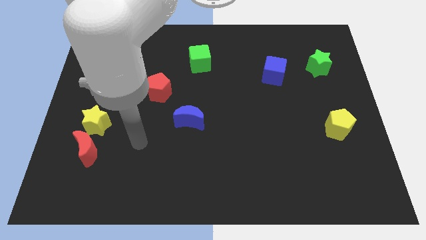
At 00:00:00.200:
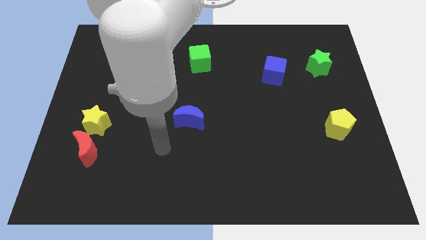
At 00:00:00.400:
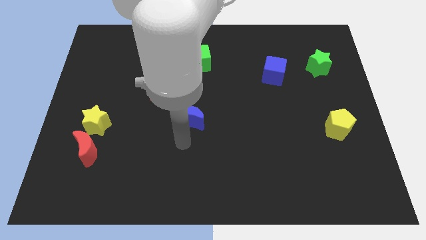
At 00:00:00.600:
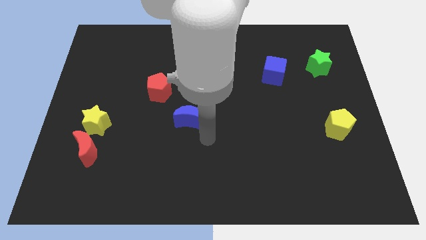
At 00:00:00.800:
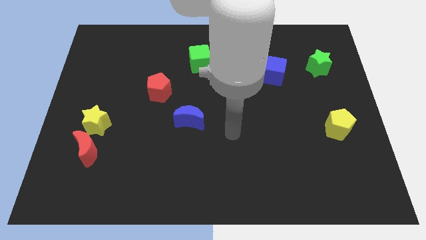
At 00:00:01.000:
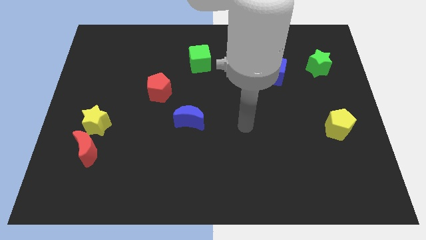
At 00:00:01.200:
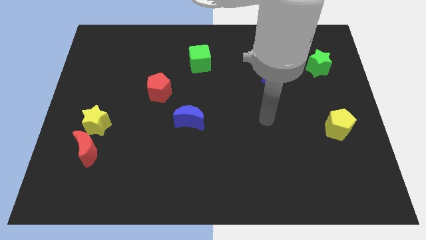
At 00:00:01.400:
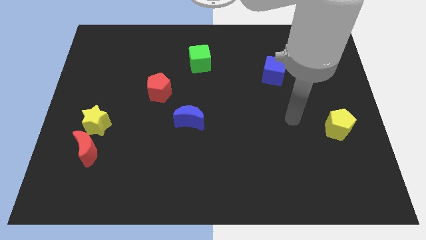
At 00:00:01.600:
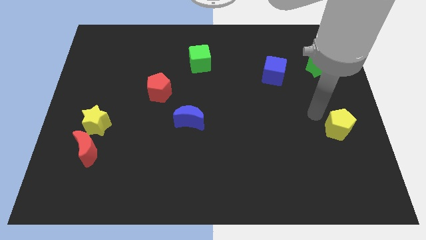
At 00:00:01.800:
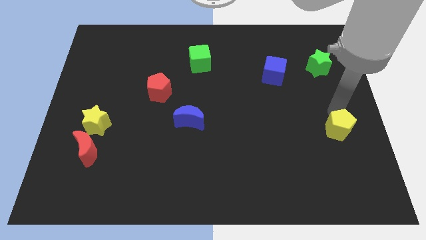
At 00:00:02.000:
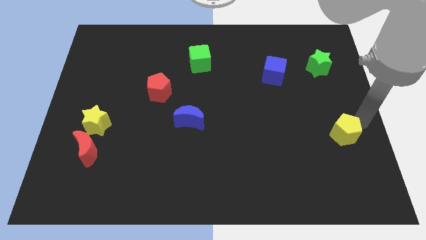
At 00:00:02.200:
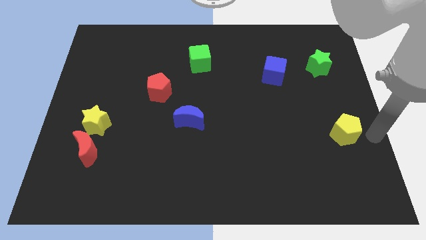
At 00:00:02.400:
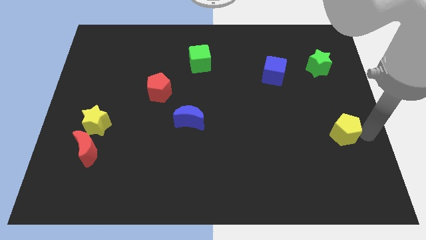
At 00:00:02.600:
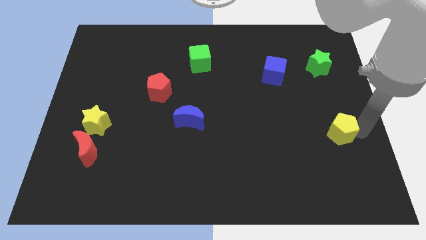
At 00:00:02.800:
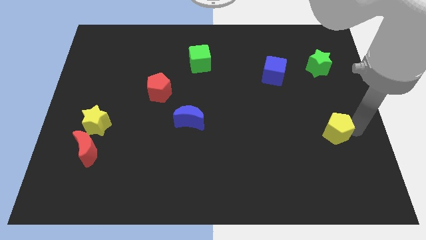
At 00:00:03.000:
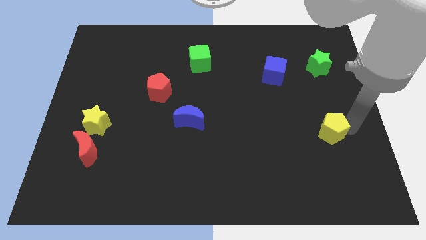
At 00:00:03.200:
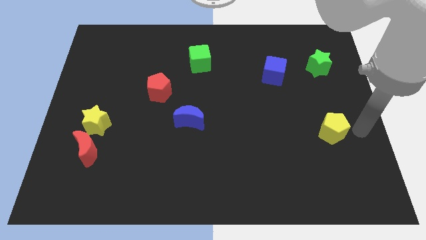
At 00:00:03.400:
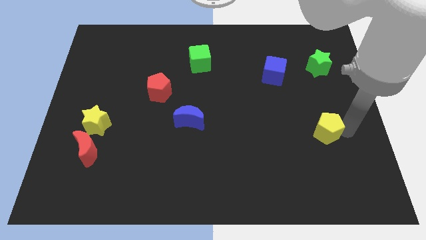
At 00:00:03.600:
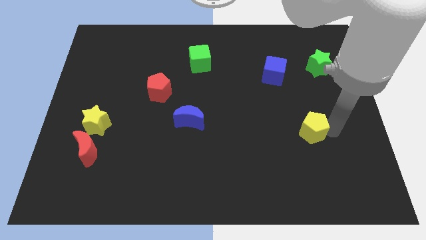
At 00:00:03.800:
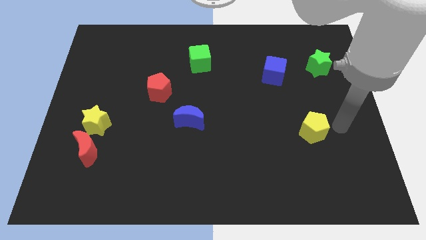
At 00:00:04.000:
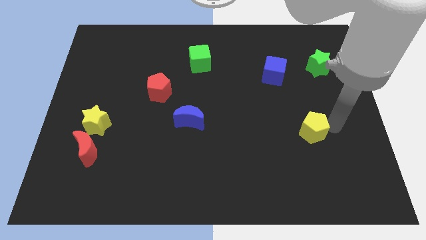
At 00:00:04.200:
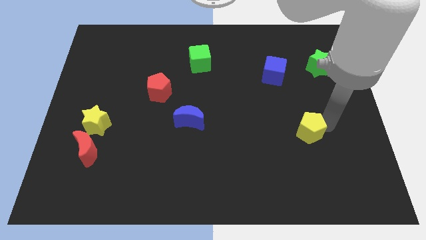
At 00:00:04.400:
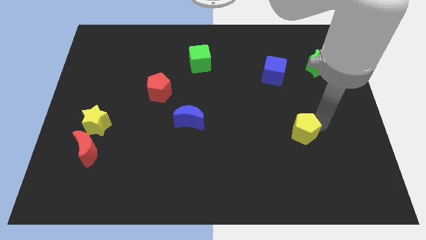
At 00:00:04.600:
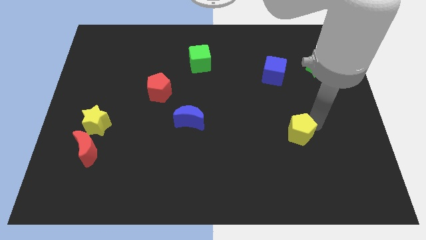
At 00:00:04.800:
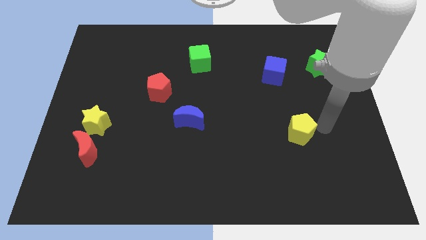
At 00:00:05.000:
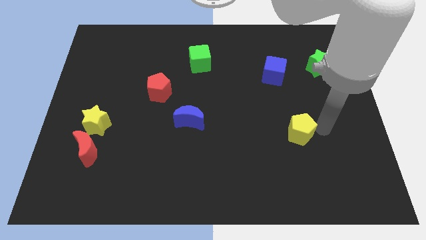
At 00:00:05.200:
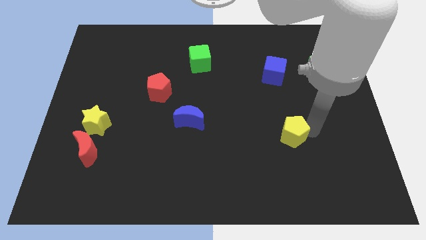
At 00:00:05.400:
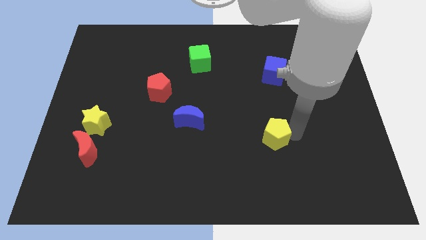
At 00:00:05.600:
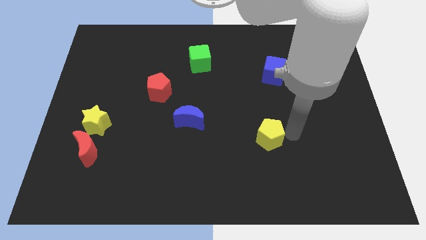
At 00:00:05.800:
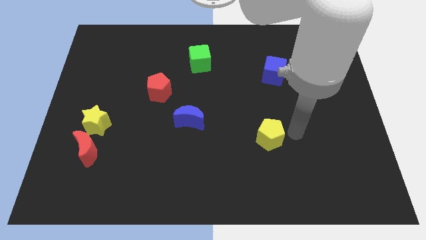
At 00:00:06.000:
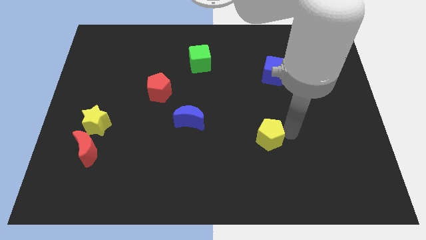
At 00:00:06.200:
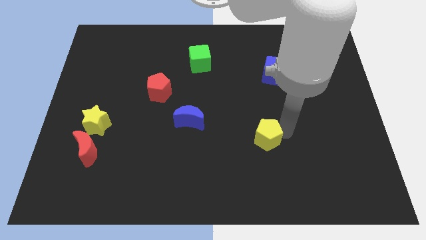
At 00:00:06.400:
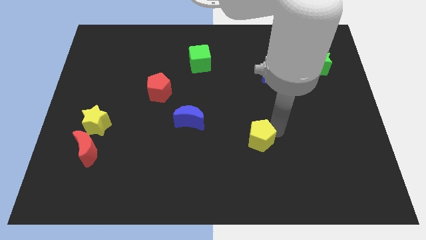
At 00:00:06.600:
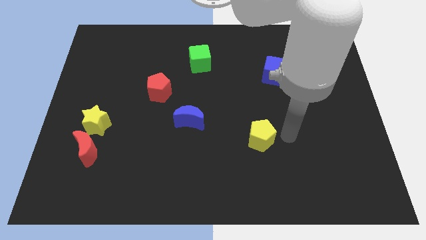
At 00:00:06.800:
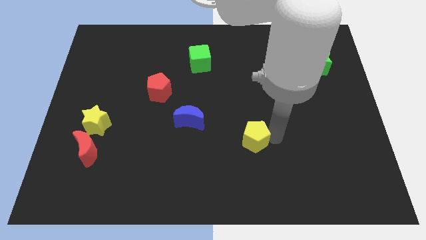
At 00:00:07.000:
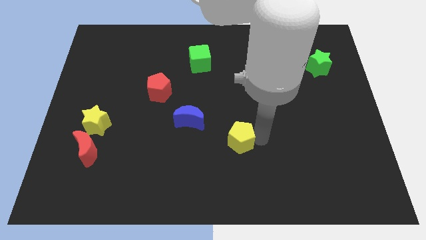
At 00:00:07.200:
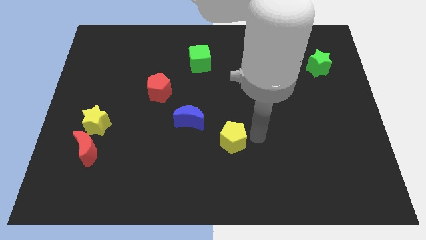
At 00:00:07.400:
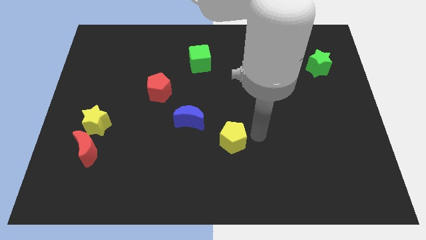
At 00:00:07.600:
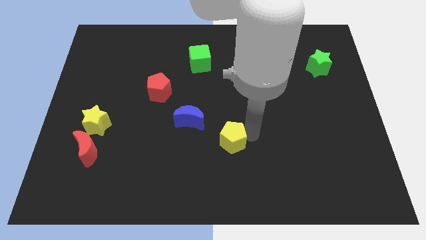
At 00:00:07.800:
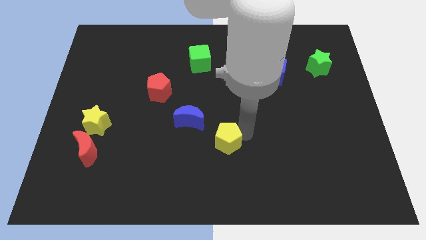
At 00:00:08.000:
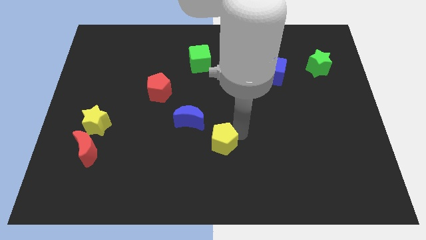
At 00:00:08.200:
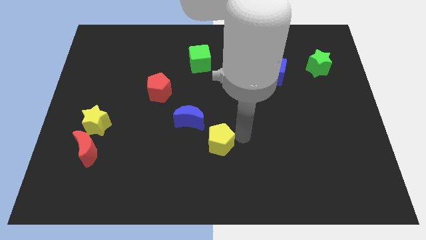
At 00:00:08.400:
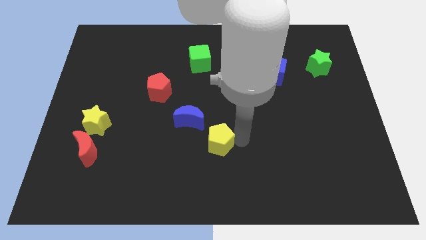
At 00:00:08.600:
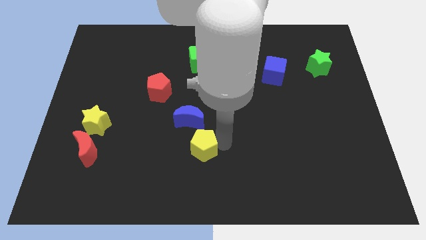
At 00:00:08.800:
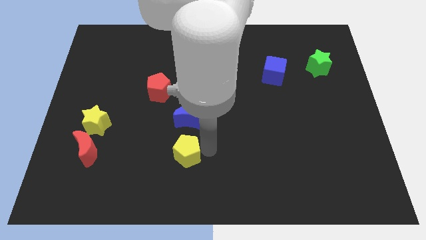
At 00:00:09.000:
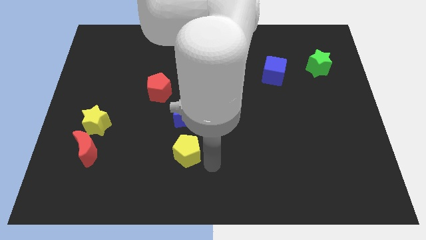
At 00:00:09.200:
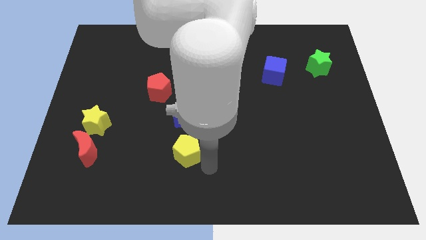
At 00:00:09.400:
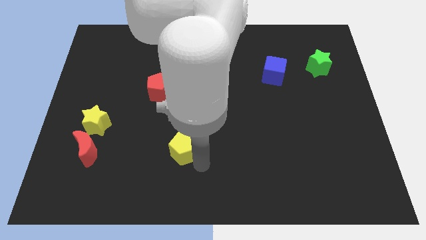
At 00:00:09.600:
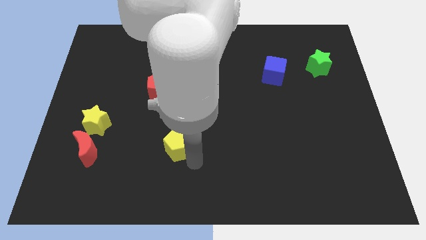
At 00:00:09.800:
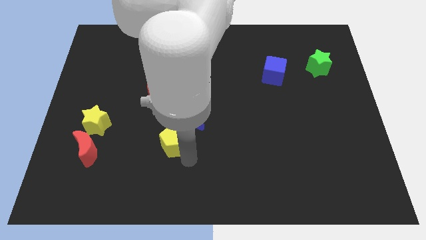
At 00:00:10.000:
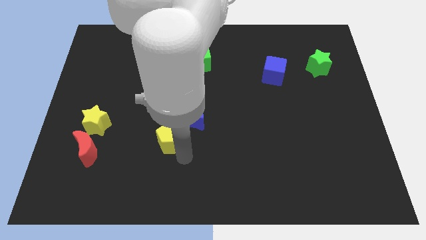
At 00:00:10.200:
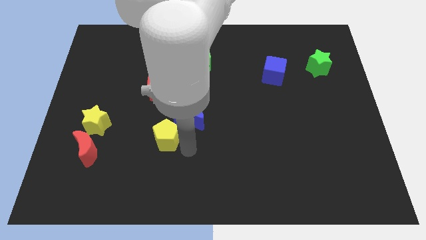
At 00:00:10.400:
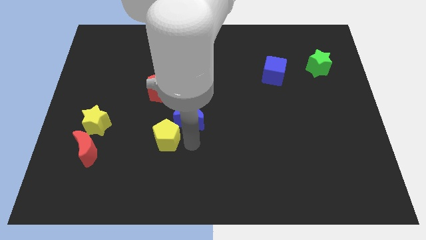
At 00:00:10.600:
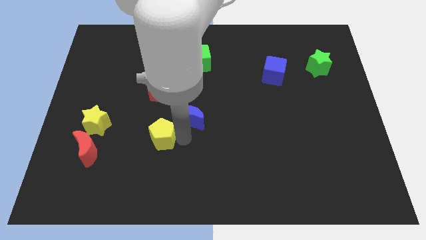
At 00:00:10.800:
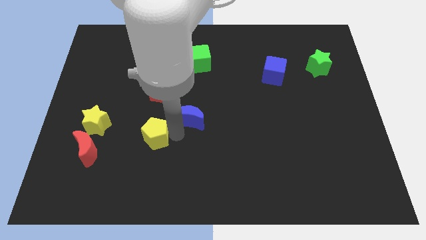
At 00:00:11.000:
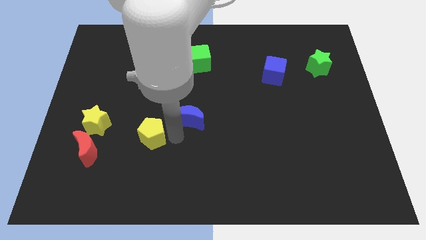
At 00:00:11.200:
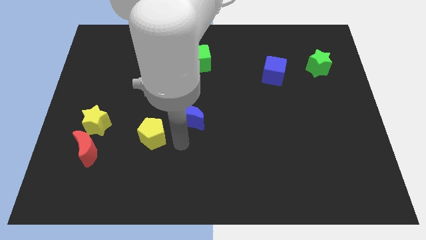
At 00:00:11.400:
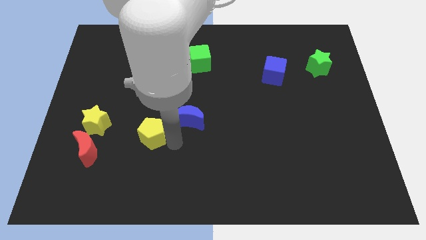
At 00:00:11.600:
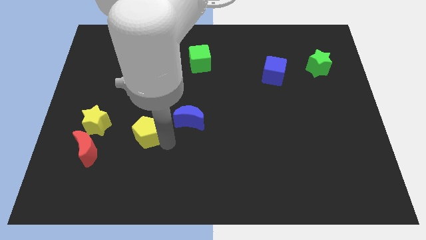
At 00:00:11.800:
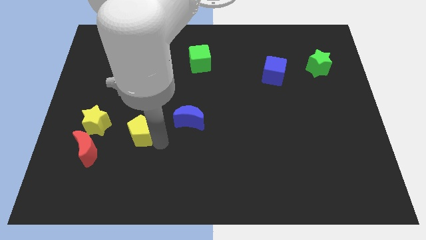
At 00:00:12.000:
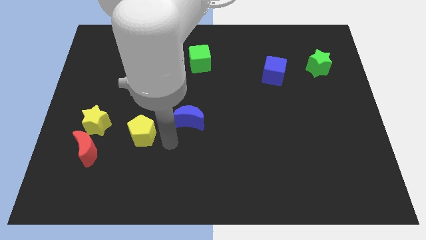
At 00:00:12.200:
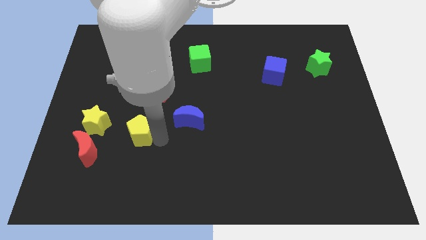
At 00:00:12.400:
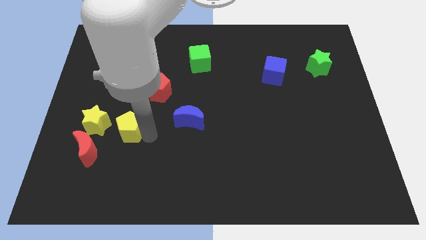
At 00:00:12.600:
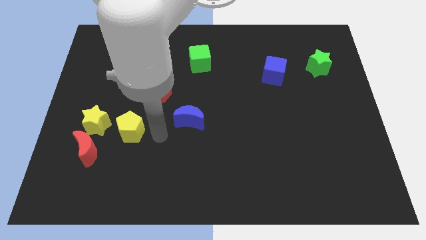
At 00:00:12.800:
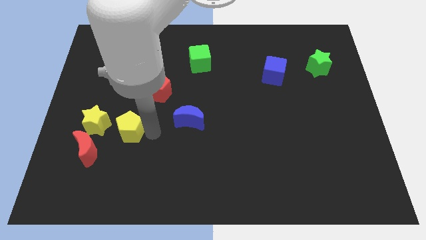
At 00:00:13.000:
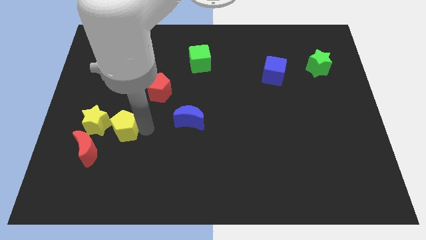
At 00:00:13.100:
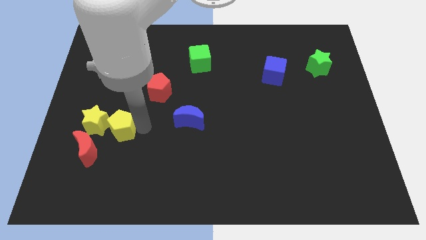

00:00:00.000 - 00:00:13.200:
move the yellow pentagon close to the yellow star

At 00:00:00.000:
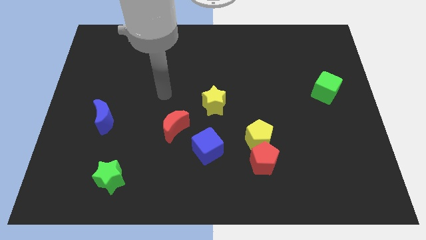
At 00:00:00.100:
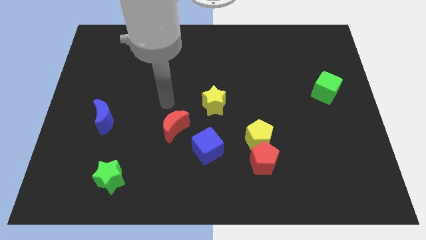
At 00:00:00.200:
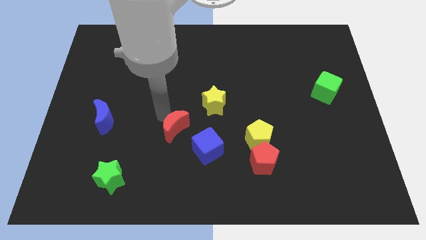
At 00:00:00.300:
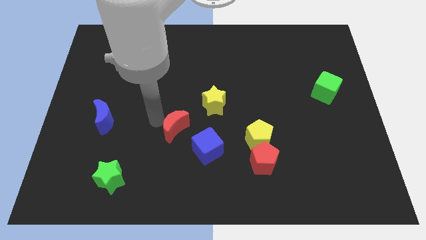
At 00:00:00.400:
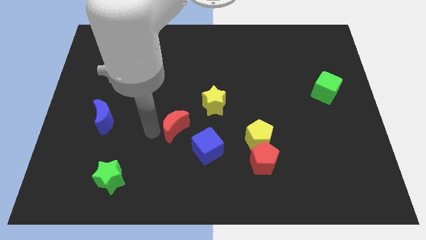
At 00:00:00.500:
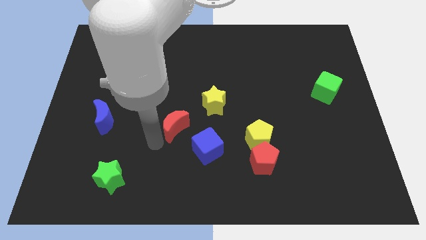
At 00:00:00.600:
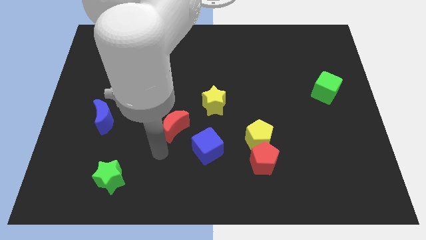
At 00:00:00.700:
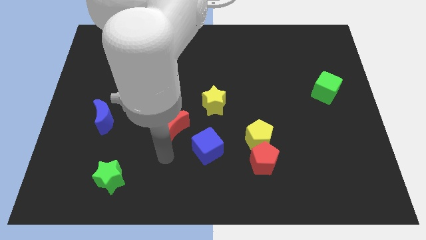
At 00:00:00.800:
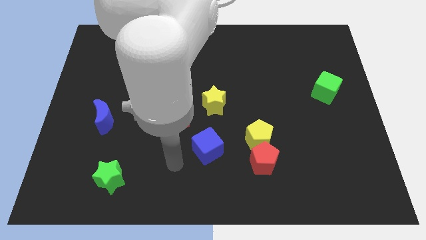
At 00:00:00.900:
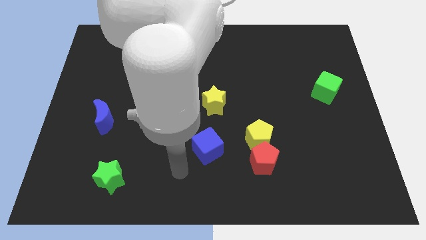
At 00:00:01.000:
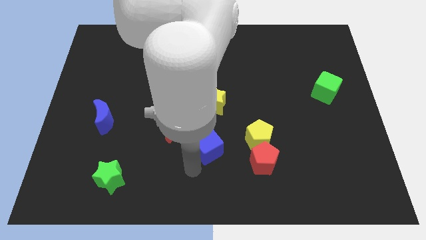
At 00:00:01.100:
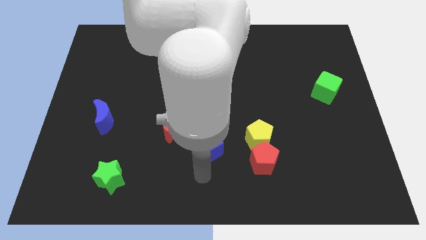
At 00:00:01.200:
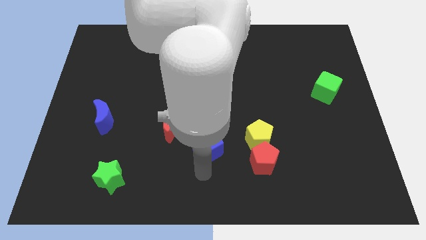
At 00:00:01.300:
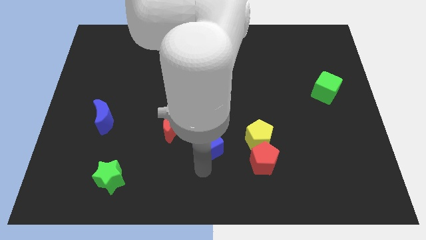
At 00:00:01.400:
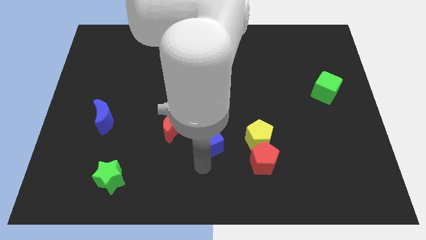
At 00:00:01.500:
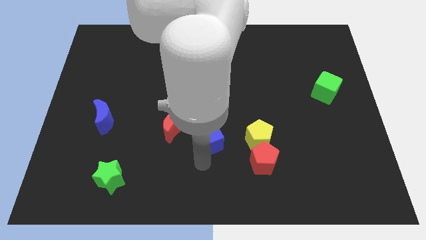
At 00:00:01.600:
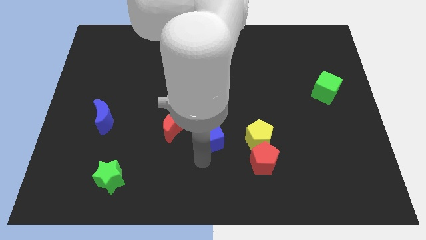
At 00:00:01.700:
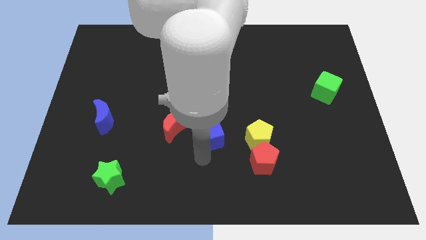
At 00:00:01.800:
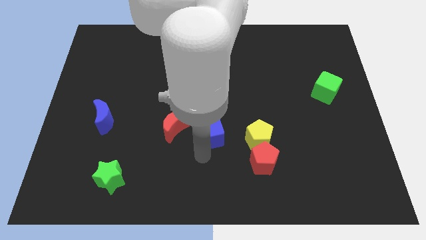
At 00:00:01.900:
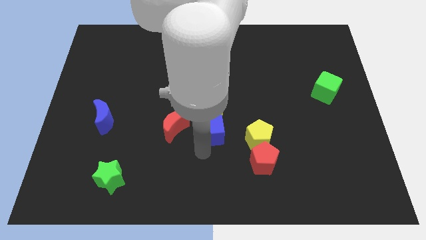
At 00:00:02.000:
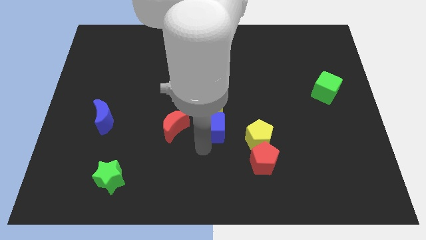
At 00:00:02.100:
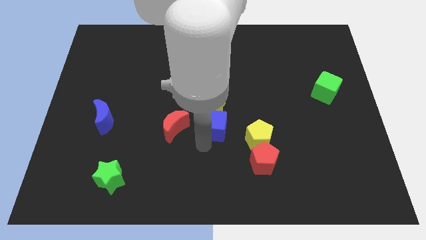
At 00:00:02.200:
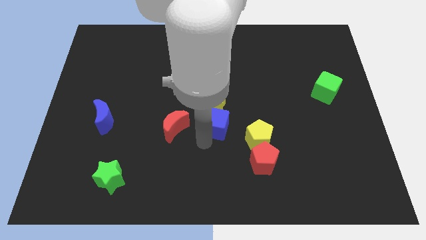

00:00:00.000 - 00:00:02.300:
push the blue cube next to the yellow star
